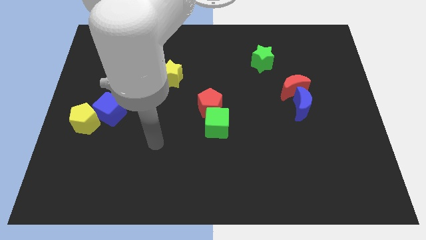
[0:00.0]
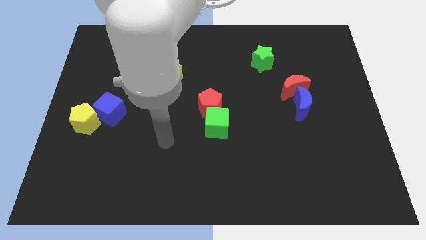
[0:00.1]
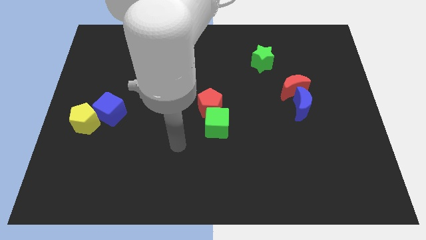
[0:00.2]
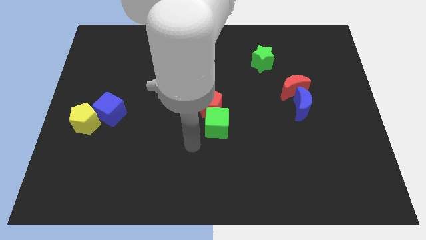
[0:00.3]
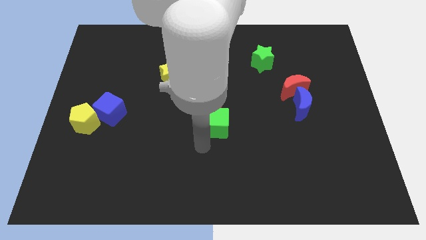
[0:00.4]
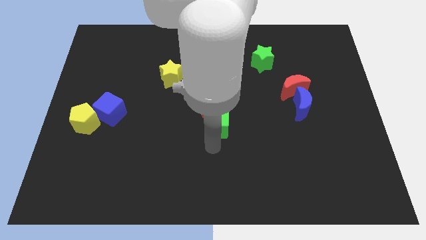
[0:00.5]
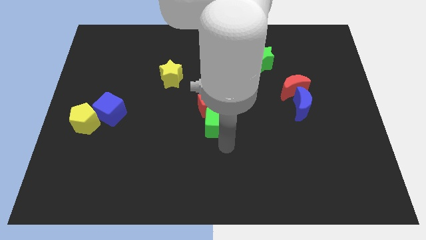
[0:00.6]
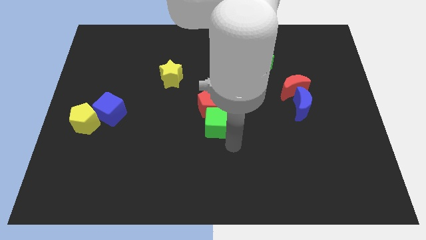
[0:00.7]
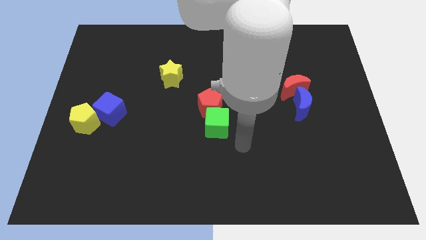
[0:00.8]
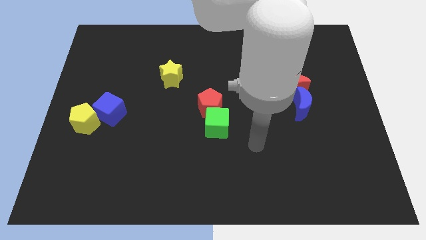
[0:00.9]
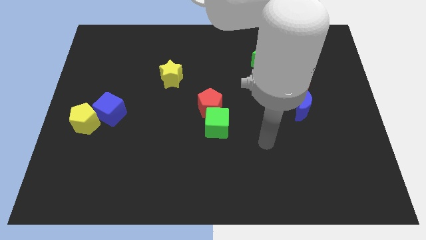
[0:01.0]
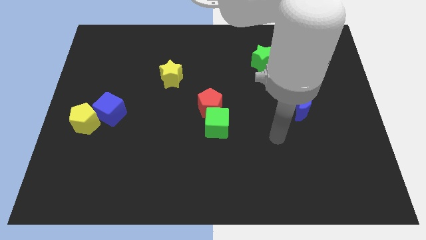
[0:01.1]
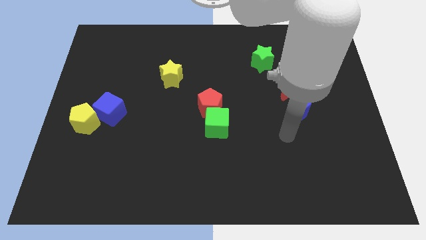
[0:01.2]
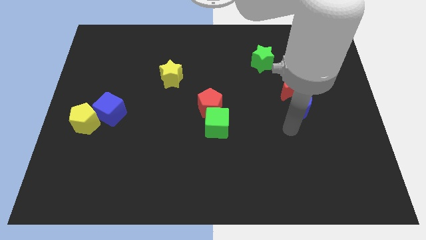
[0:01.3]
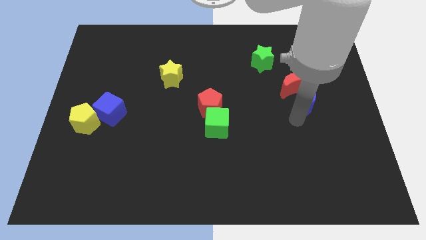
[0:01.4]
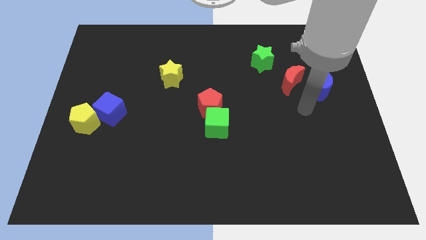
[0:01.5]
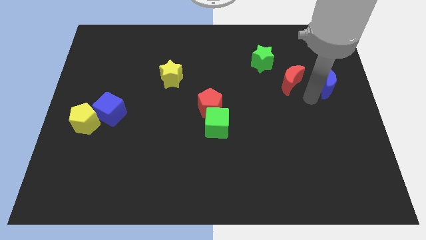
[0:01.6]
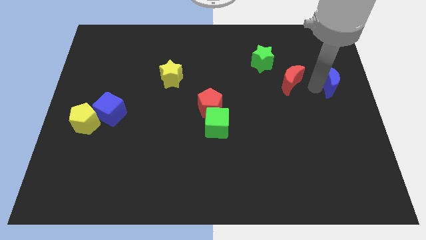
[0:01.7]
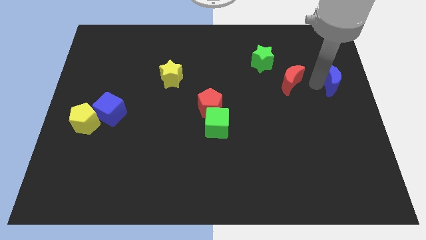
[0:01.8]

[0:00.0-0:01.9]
separate the red moon from the blue moon

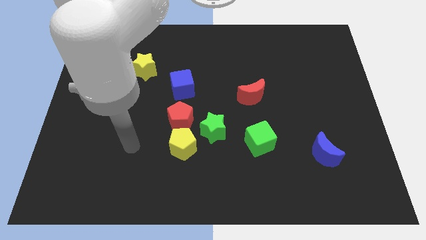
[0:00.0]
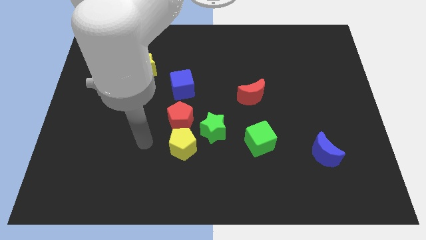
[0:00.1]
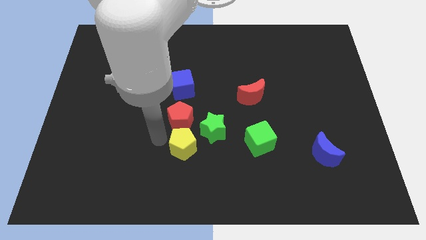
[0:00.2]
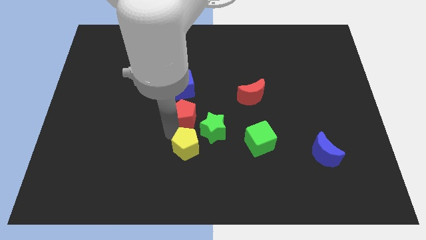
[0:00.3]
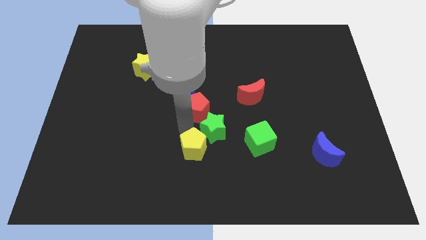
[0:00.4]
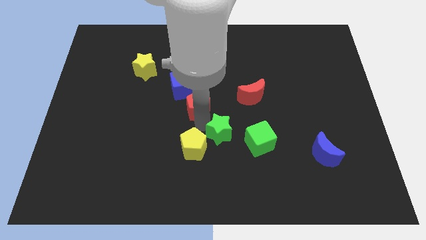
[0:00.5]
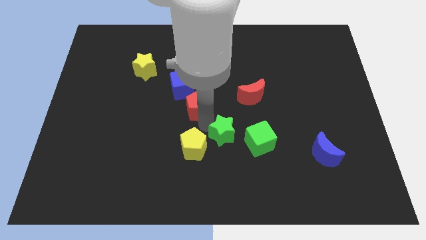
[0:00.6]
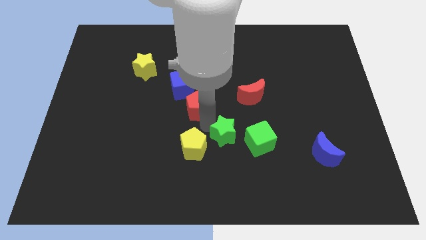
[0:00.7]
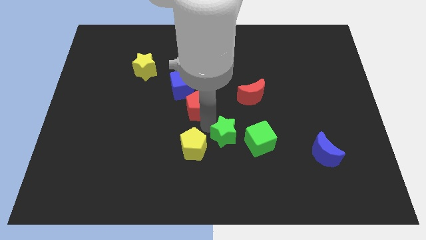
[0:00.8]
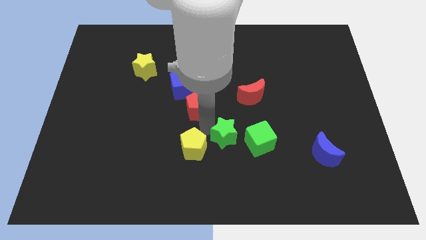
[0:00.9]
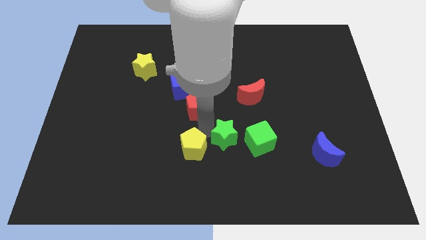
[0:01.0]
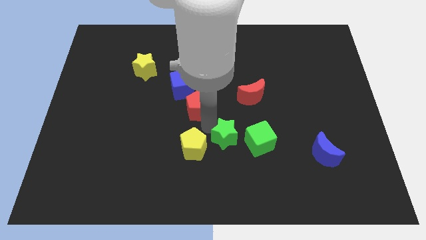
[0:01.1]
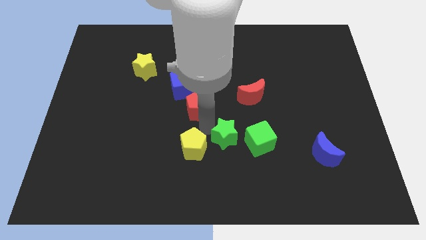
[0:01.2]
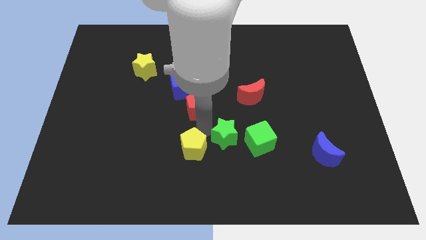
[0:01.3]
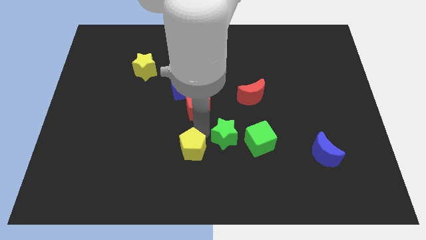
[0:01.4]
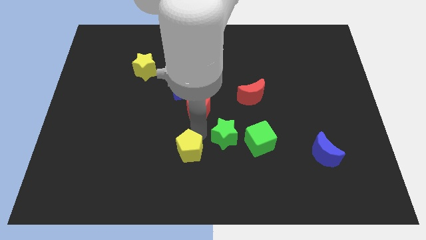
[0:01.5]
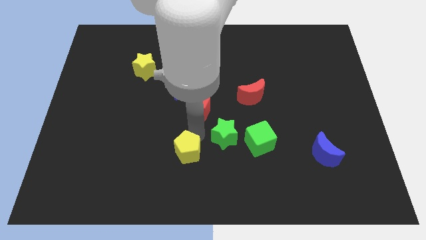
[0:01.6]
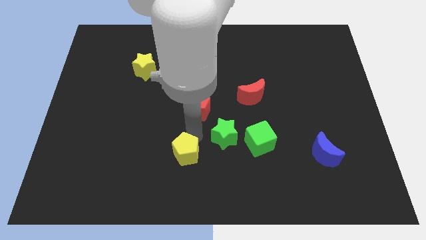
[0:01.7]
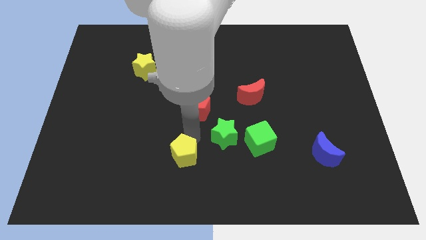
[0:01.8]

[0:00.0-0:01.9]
pull the yellow pentagon apart from the red pentagon and green star

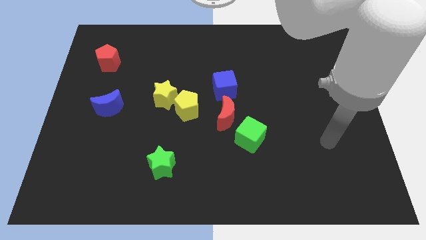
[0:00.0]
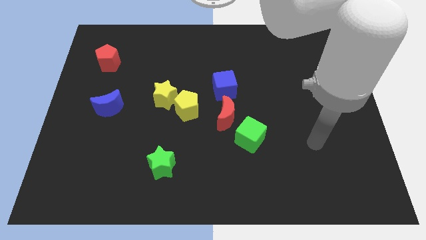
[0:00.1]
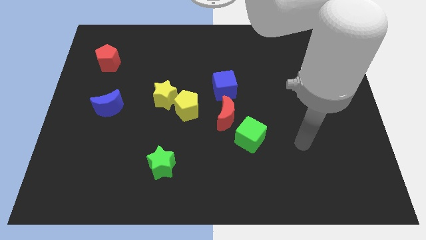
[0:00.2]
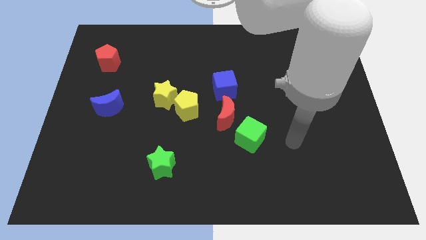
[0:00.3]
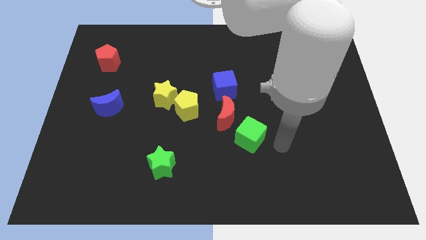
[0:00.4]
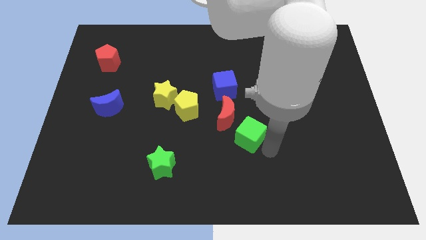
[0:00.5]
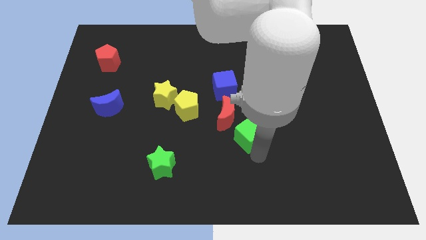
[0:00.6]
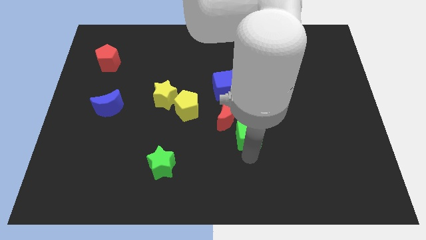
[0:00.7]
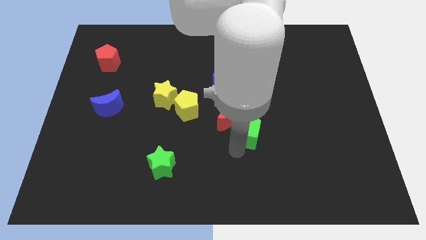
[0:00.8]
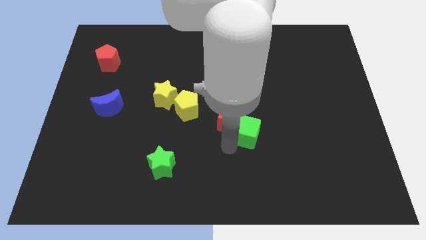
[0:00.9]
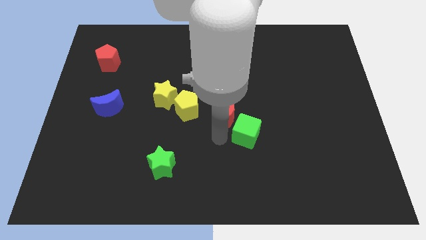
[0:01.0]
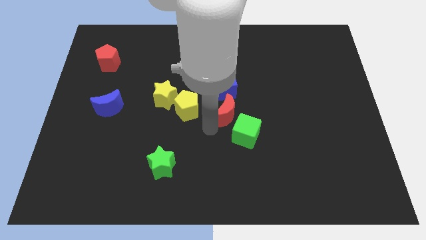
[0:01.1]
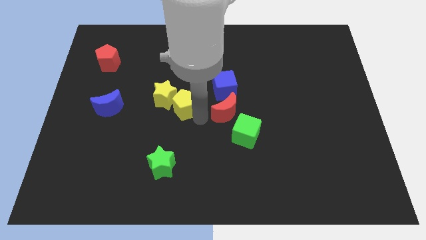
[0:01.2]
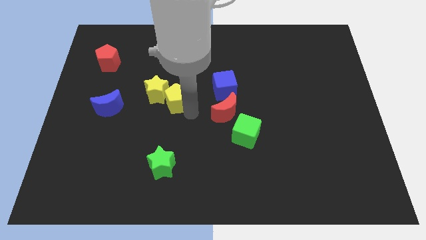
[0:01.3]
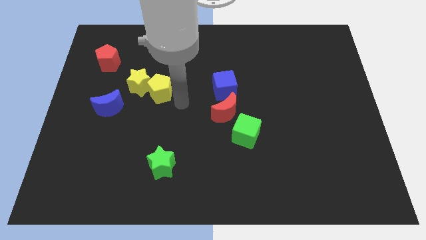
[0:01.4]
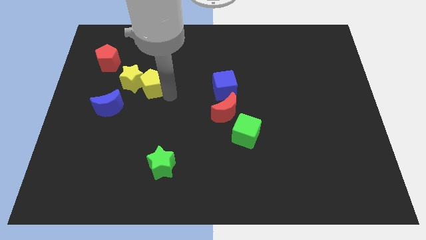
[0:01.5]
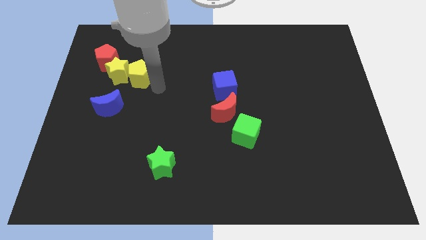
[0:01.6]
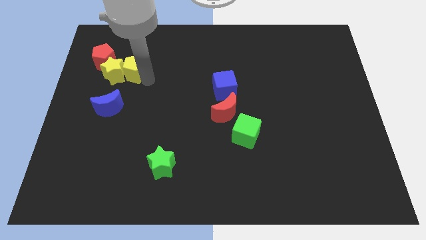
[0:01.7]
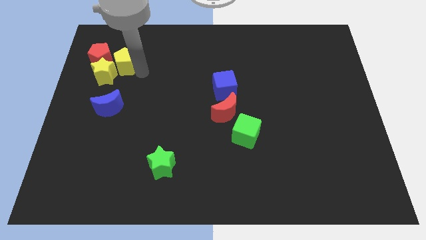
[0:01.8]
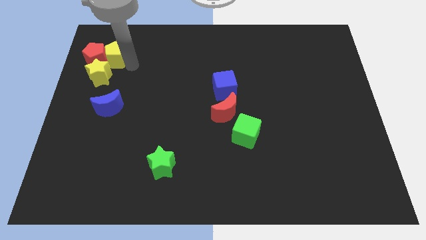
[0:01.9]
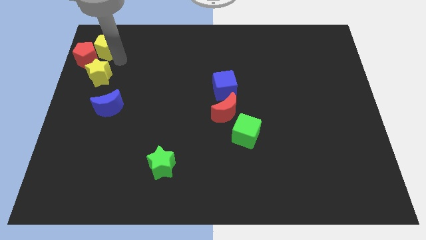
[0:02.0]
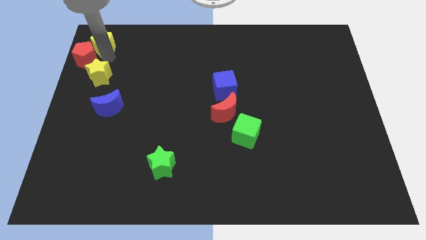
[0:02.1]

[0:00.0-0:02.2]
pull the yellow star apart from the yellow pentagon

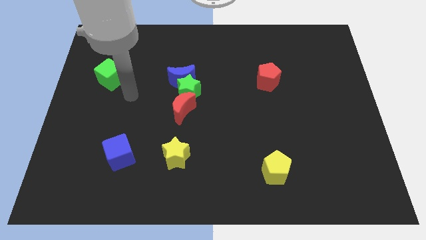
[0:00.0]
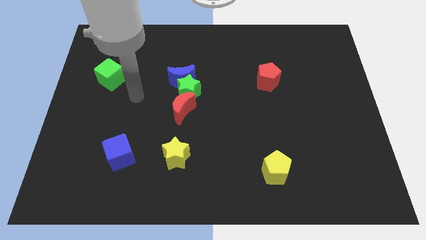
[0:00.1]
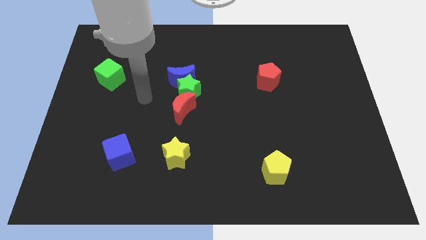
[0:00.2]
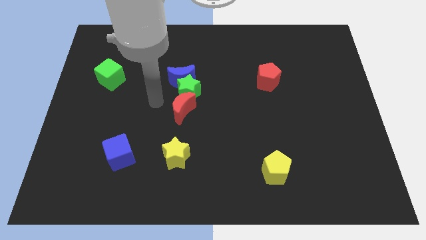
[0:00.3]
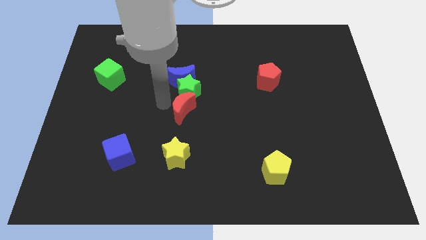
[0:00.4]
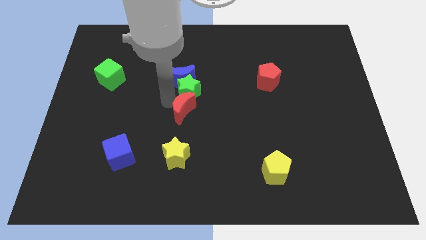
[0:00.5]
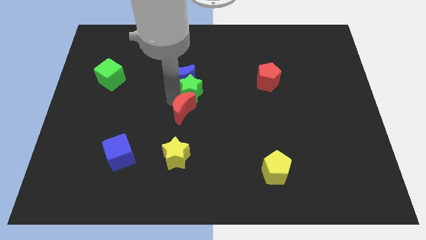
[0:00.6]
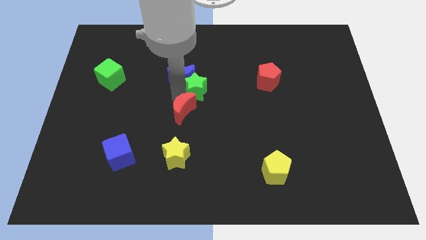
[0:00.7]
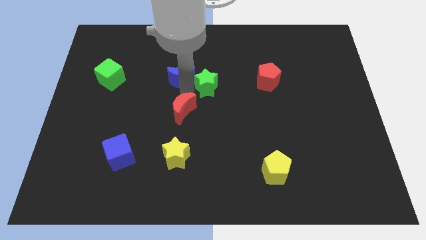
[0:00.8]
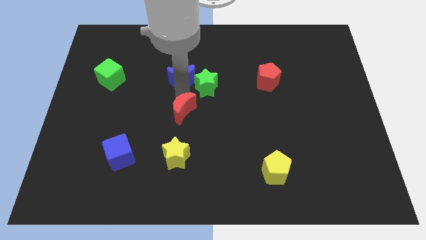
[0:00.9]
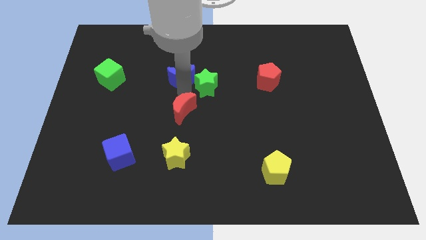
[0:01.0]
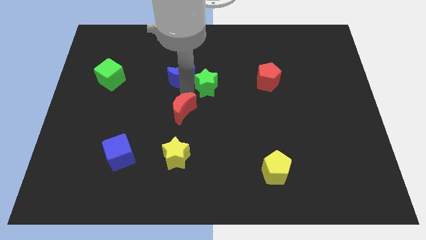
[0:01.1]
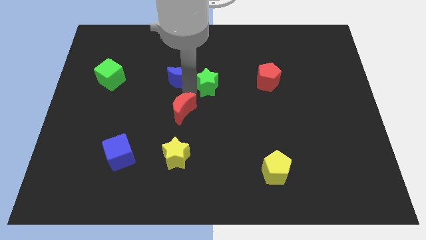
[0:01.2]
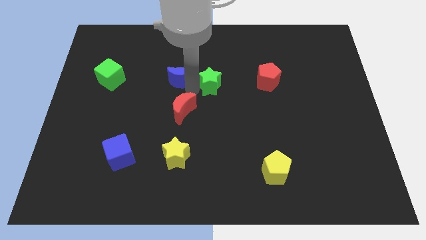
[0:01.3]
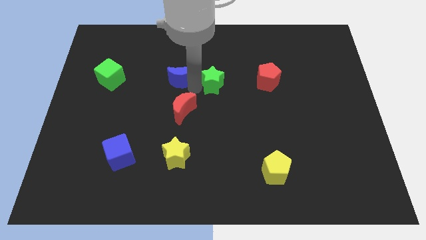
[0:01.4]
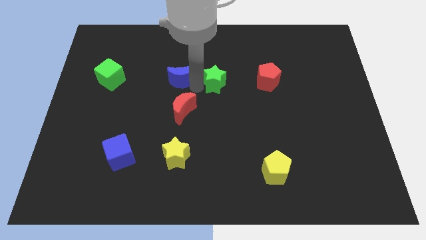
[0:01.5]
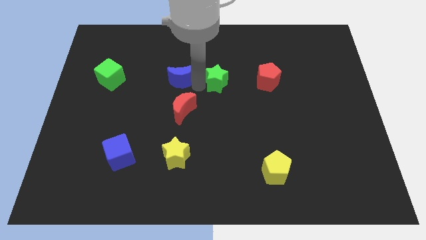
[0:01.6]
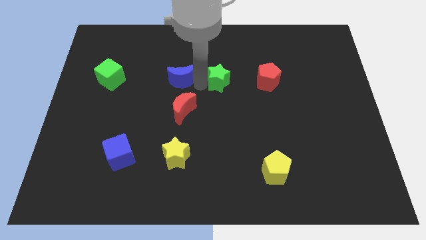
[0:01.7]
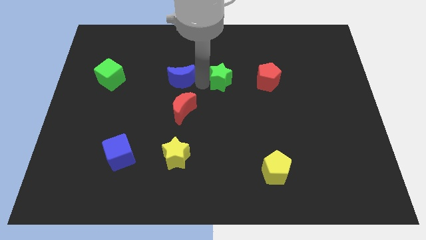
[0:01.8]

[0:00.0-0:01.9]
move the green star away from the blue moon and red moon

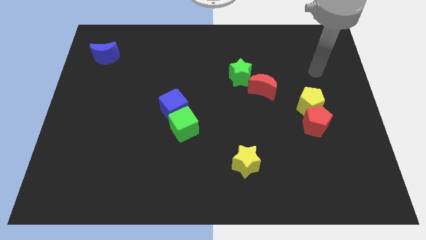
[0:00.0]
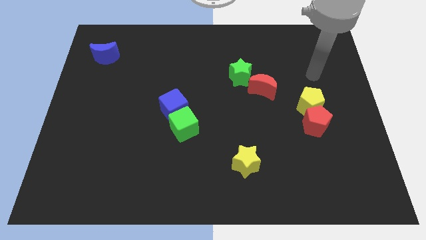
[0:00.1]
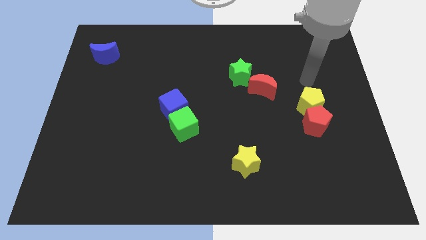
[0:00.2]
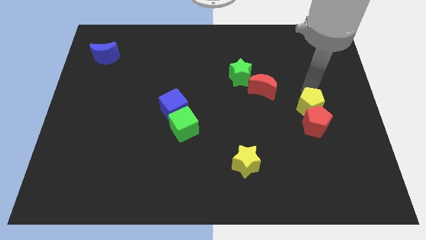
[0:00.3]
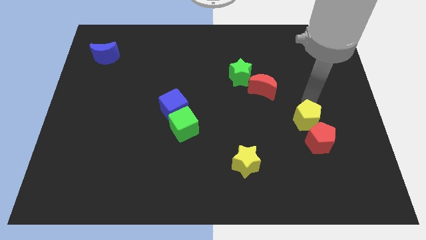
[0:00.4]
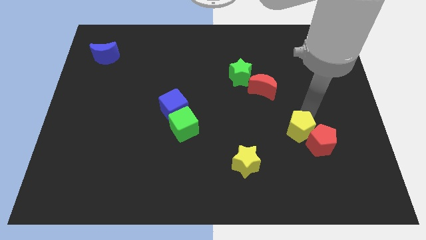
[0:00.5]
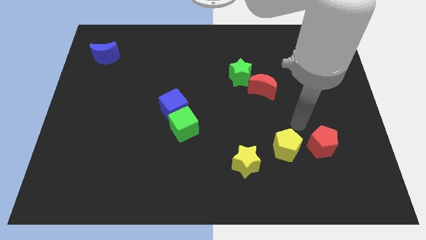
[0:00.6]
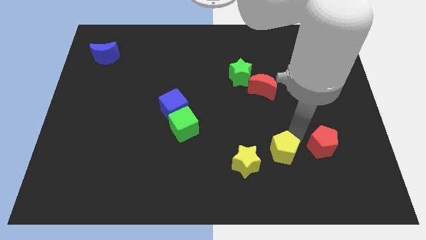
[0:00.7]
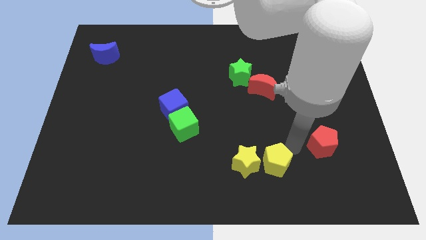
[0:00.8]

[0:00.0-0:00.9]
pull the red pentagon apart from the yellow pentagon

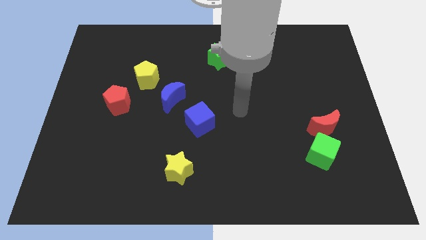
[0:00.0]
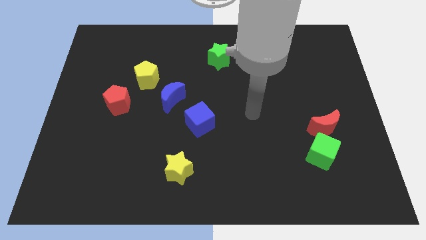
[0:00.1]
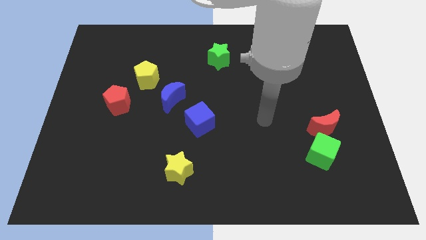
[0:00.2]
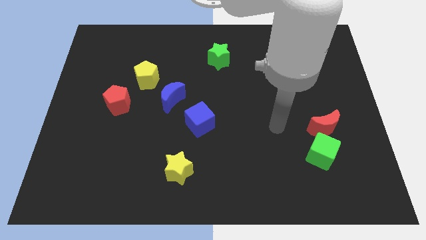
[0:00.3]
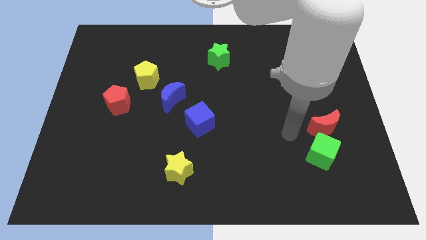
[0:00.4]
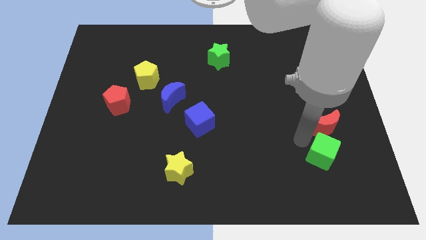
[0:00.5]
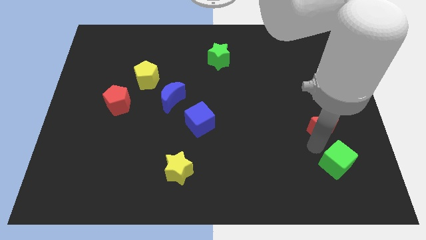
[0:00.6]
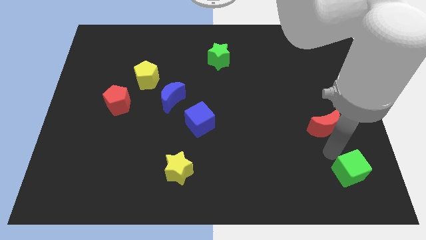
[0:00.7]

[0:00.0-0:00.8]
pull the red moon apart from the green cube
